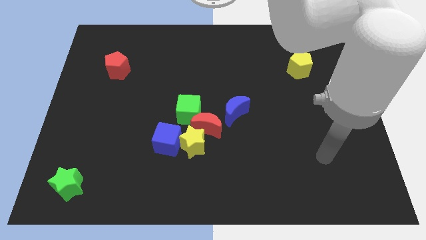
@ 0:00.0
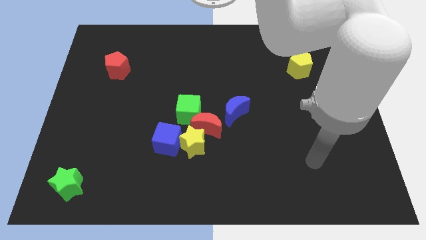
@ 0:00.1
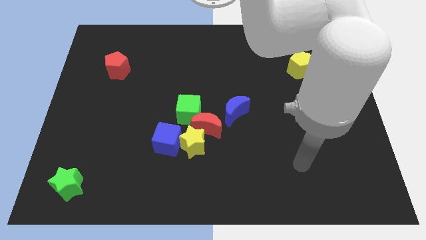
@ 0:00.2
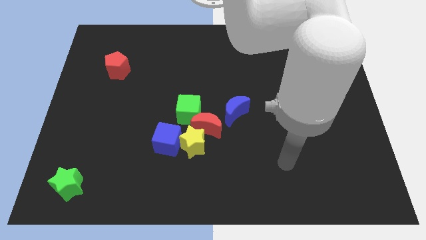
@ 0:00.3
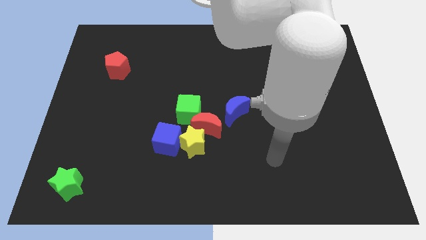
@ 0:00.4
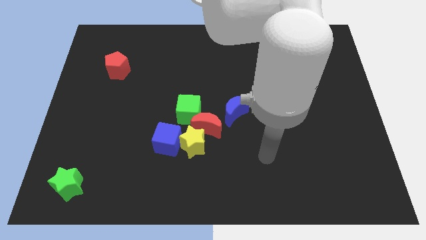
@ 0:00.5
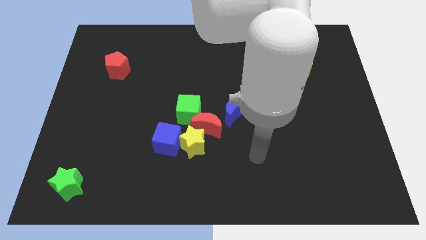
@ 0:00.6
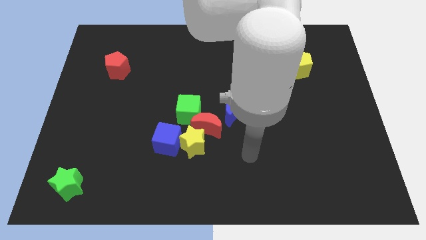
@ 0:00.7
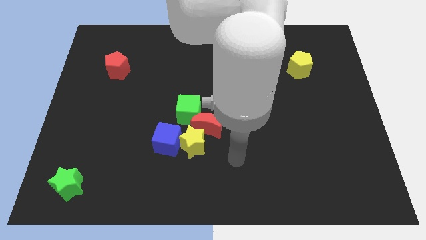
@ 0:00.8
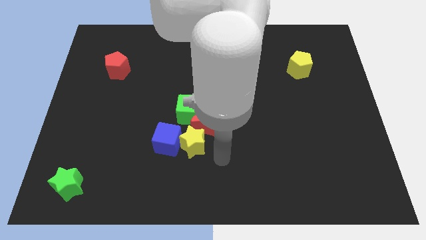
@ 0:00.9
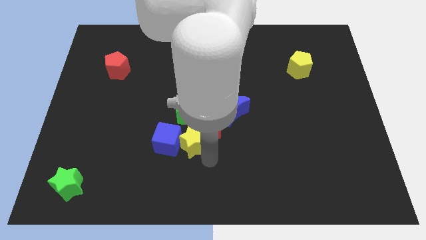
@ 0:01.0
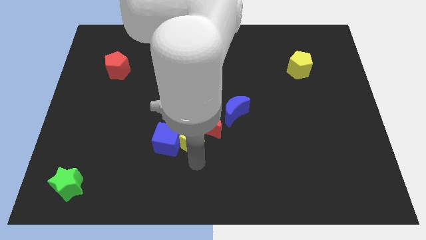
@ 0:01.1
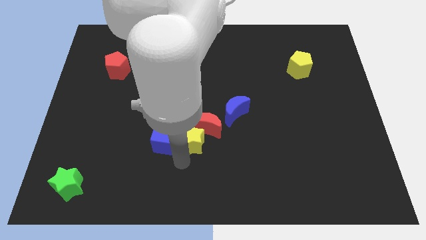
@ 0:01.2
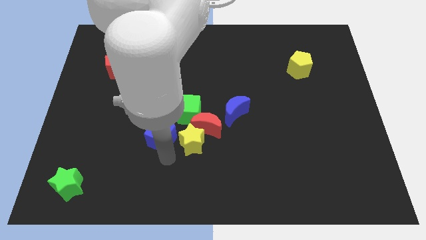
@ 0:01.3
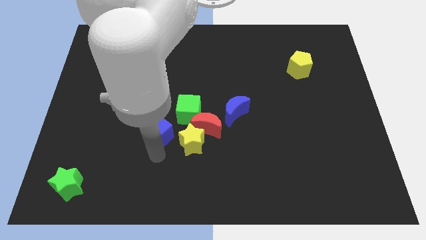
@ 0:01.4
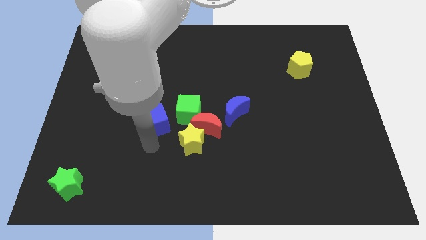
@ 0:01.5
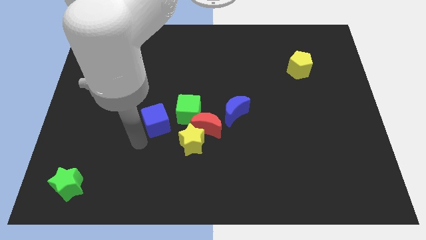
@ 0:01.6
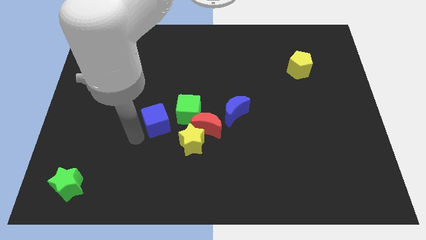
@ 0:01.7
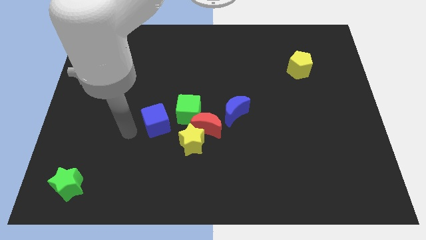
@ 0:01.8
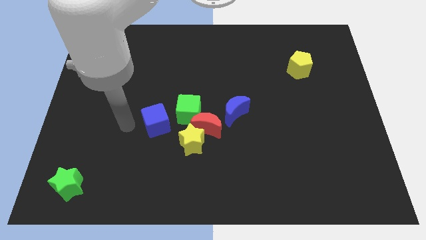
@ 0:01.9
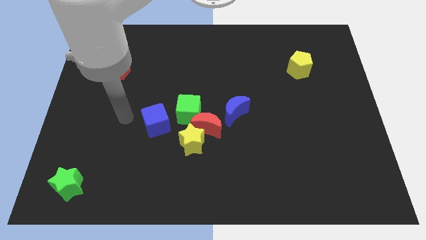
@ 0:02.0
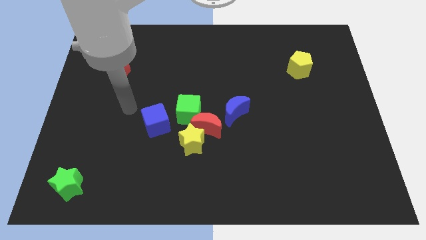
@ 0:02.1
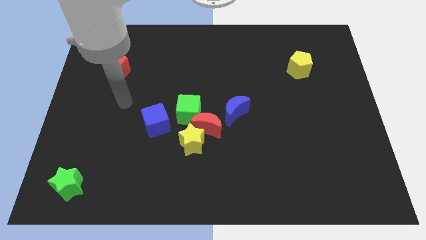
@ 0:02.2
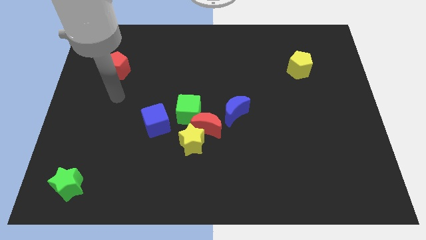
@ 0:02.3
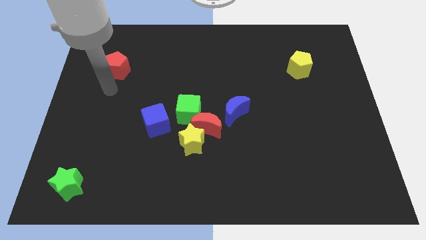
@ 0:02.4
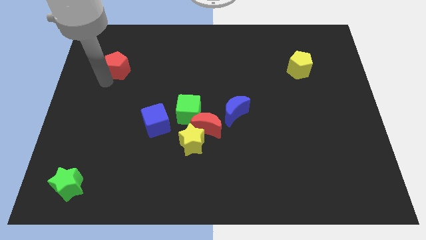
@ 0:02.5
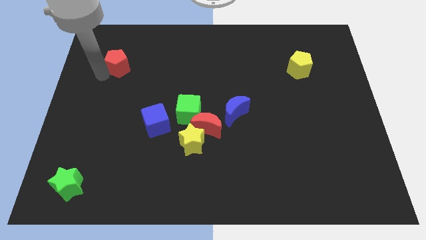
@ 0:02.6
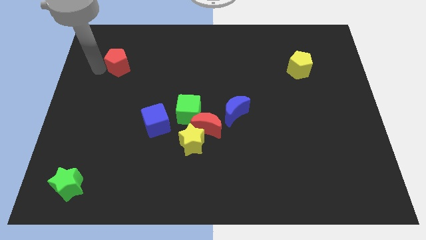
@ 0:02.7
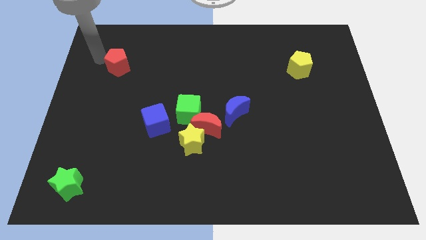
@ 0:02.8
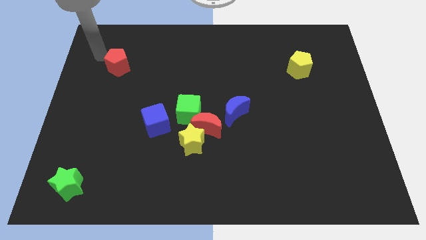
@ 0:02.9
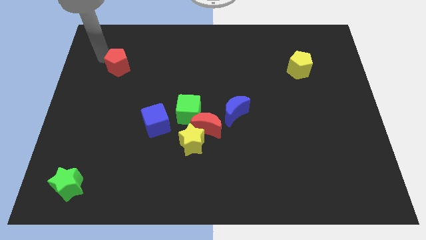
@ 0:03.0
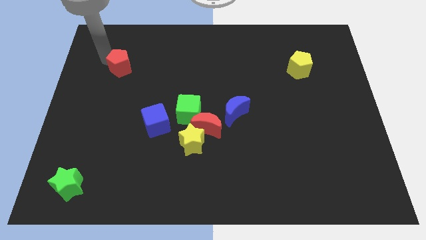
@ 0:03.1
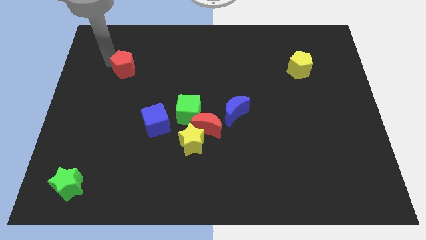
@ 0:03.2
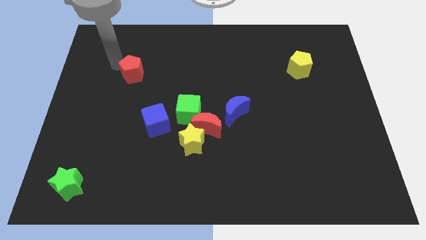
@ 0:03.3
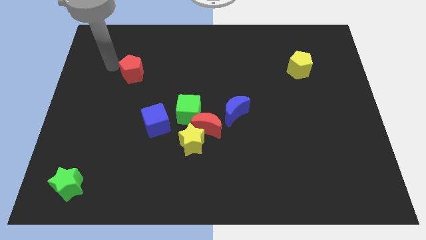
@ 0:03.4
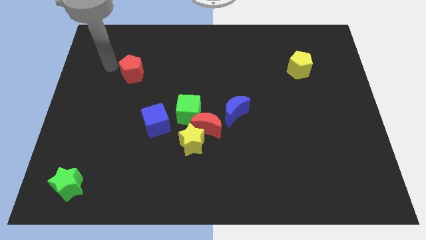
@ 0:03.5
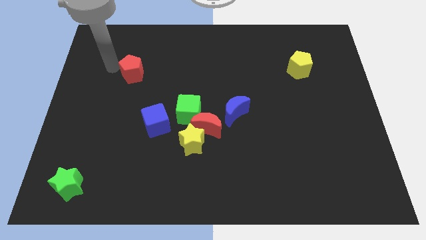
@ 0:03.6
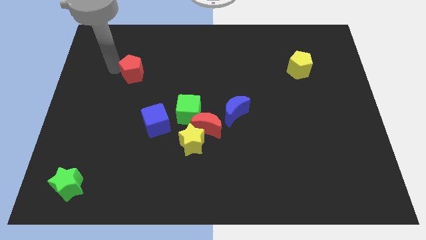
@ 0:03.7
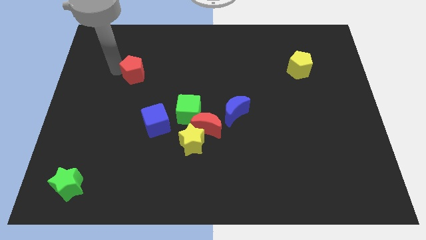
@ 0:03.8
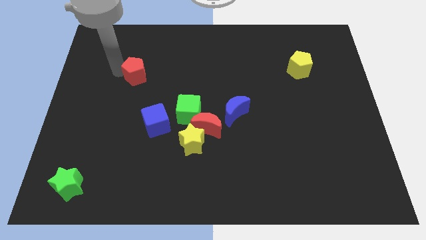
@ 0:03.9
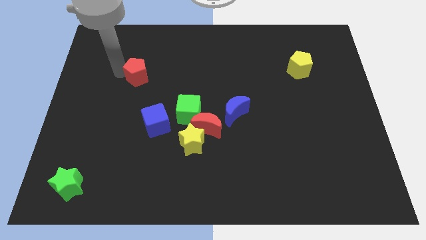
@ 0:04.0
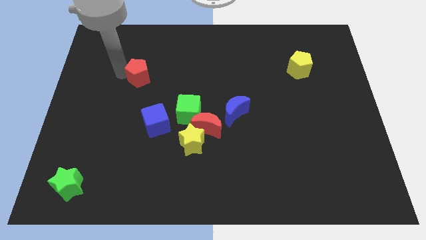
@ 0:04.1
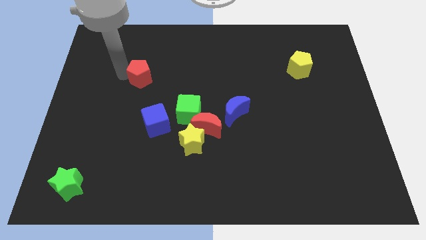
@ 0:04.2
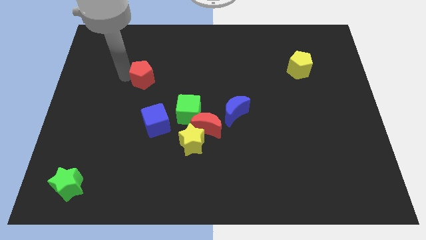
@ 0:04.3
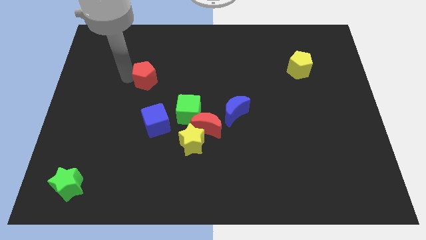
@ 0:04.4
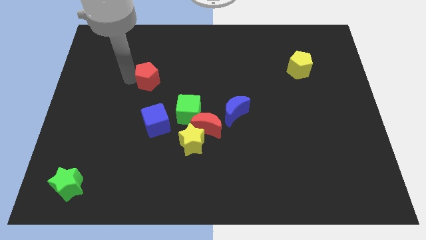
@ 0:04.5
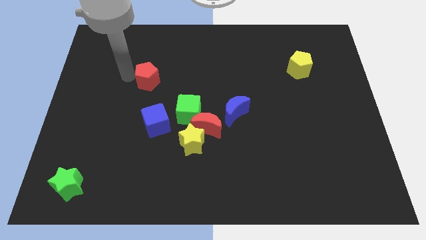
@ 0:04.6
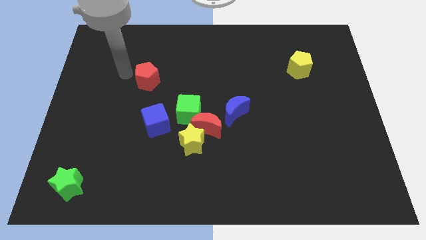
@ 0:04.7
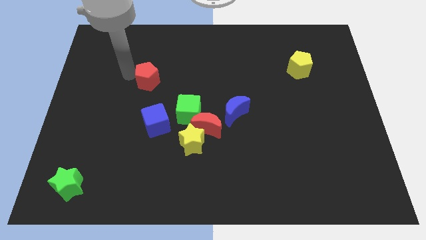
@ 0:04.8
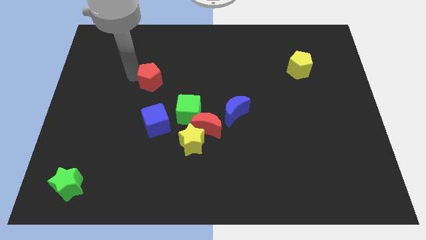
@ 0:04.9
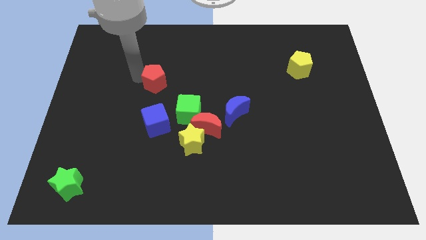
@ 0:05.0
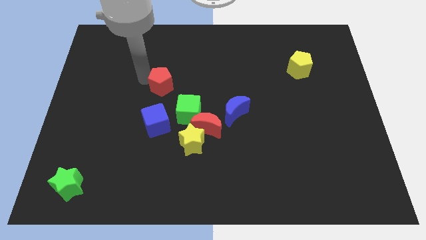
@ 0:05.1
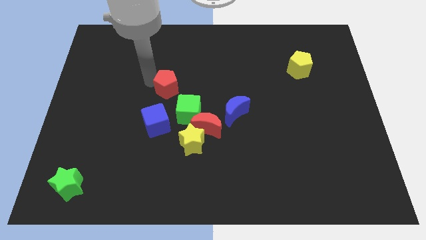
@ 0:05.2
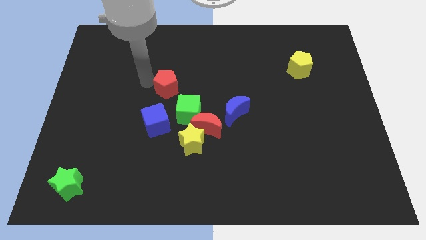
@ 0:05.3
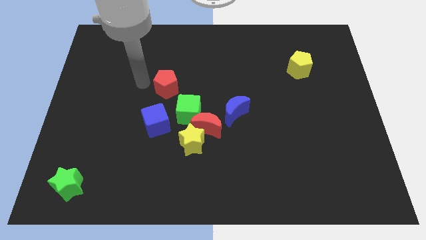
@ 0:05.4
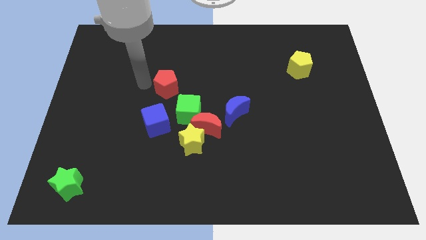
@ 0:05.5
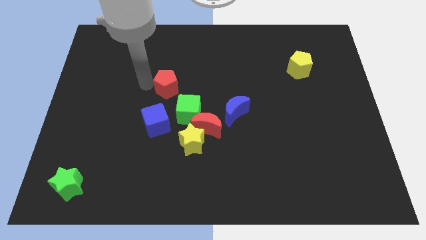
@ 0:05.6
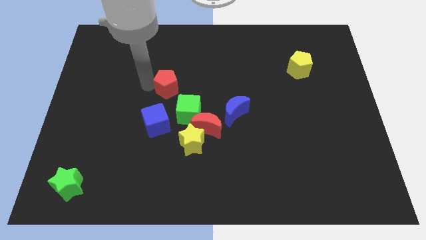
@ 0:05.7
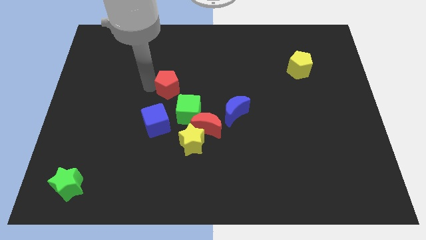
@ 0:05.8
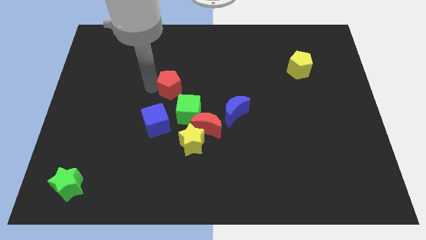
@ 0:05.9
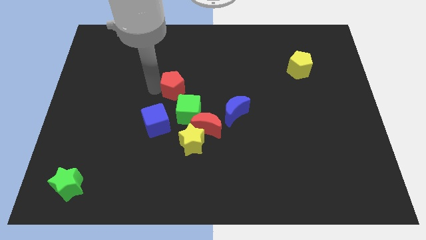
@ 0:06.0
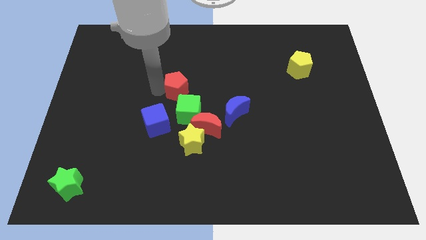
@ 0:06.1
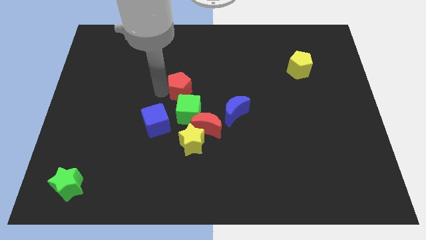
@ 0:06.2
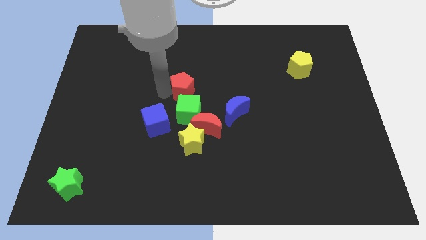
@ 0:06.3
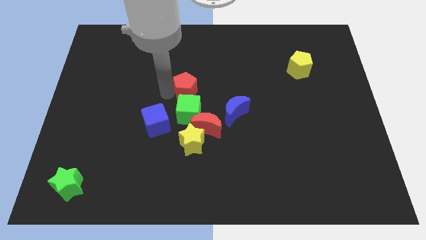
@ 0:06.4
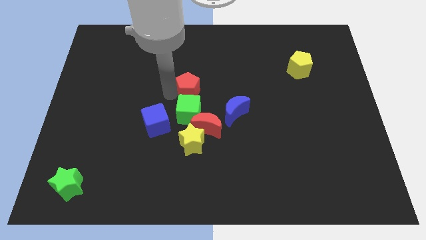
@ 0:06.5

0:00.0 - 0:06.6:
push the red pentagon above the red moon
